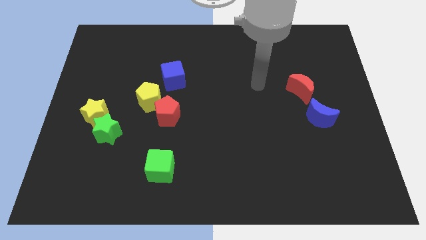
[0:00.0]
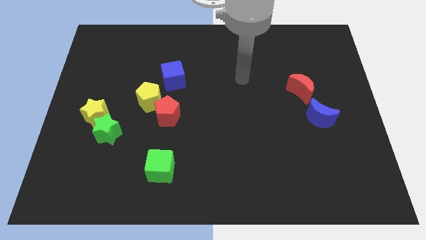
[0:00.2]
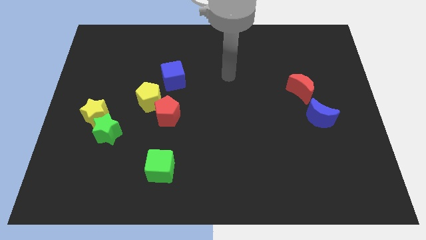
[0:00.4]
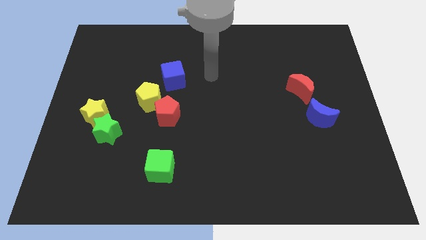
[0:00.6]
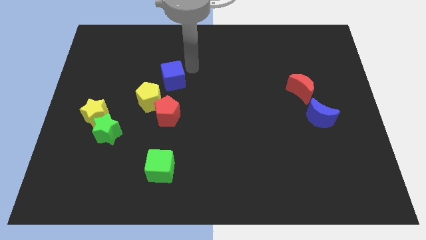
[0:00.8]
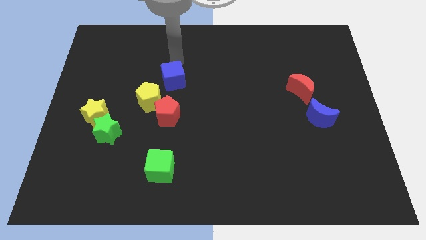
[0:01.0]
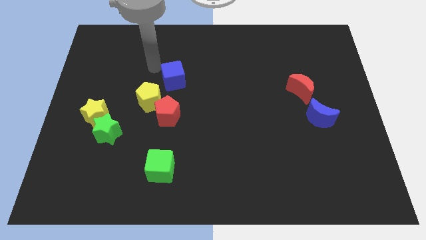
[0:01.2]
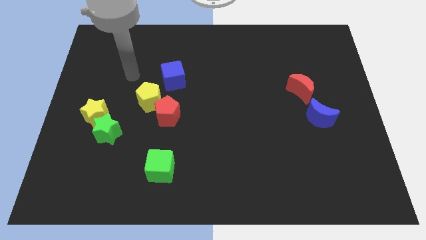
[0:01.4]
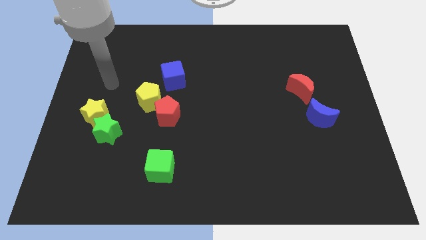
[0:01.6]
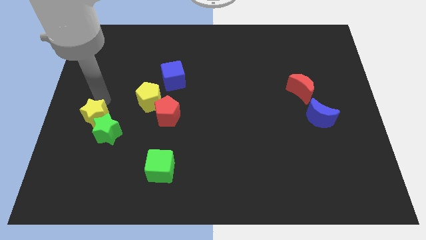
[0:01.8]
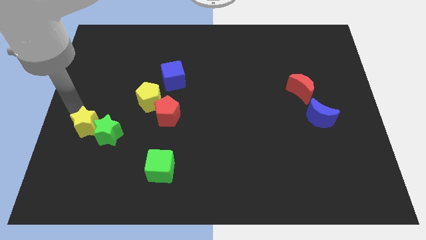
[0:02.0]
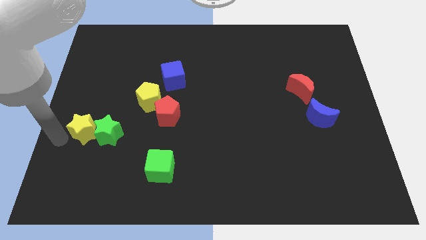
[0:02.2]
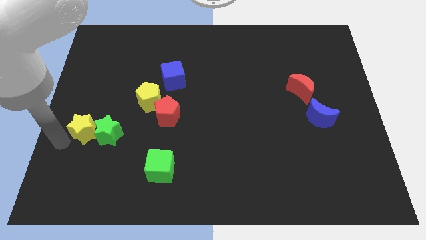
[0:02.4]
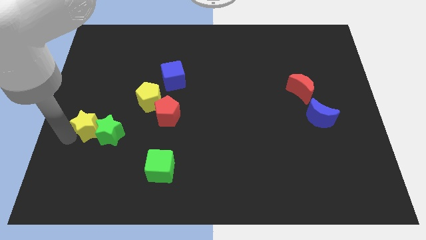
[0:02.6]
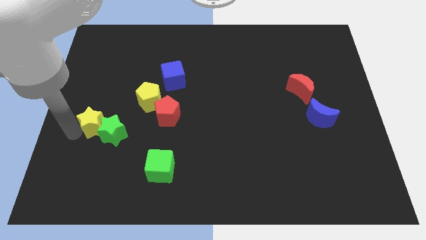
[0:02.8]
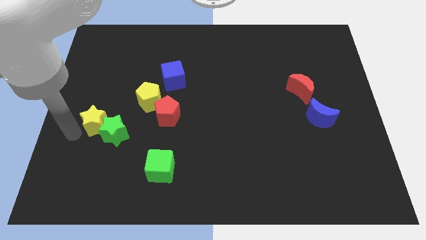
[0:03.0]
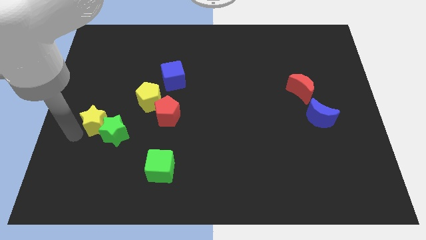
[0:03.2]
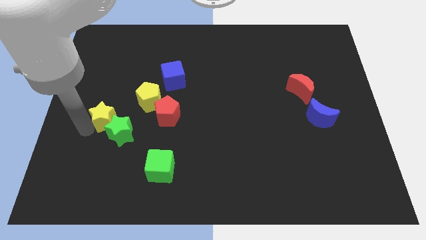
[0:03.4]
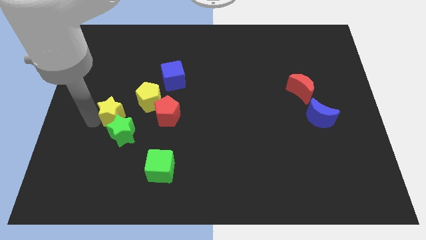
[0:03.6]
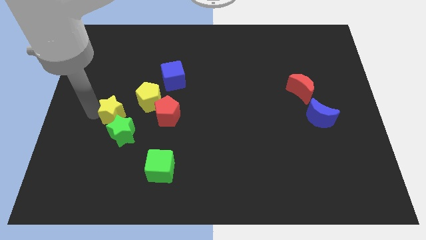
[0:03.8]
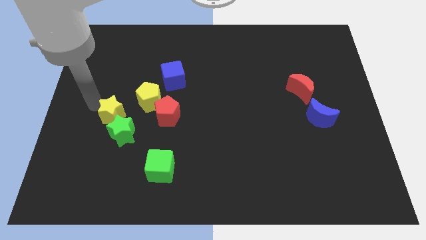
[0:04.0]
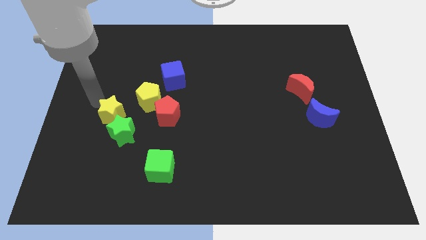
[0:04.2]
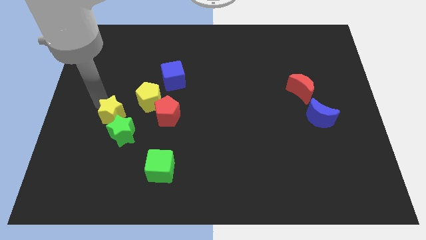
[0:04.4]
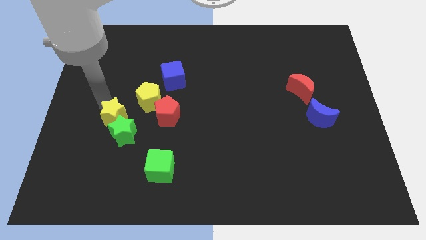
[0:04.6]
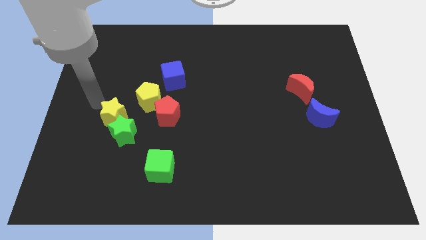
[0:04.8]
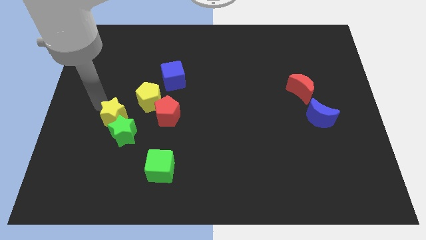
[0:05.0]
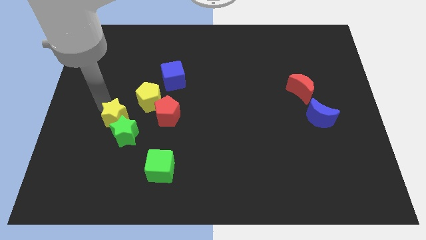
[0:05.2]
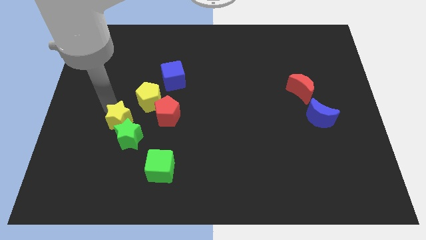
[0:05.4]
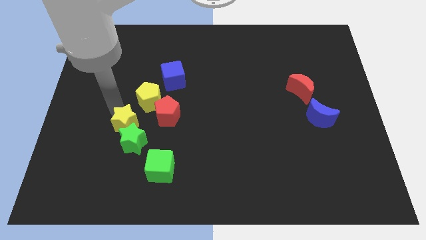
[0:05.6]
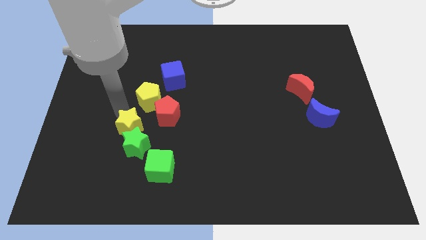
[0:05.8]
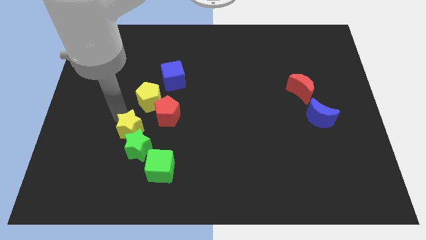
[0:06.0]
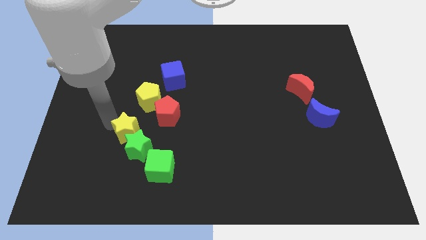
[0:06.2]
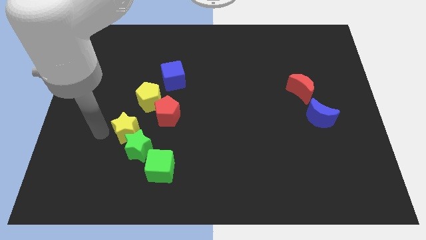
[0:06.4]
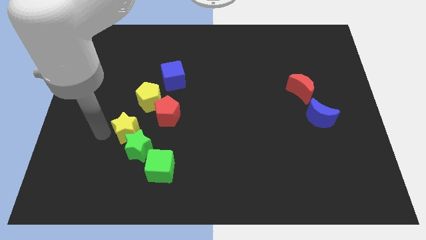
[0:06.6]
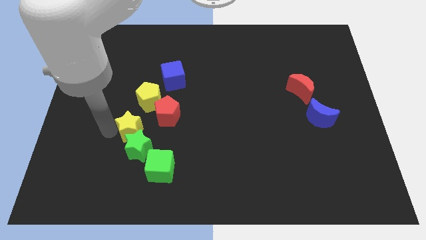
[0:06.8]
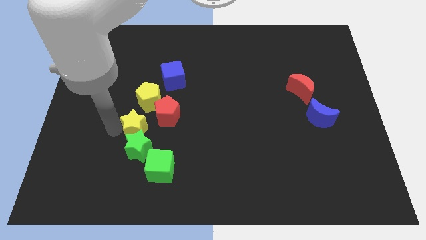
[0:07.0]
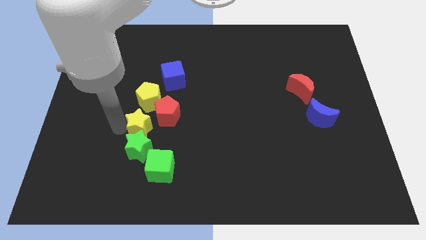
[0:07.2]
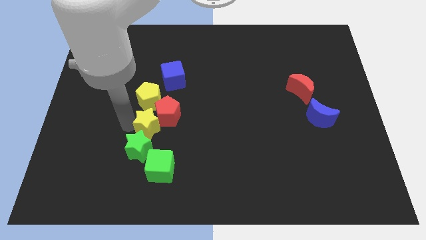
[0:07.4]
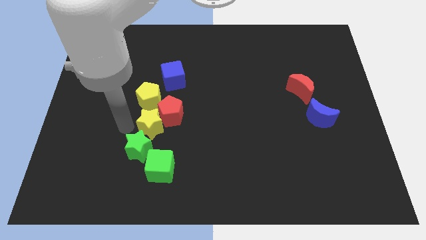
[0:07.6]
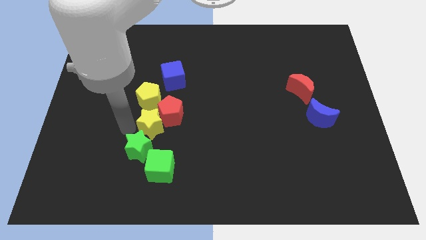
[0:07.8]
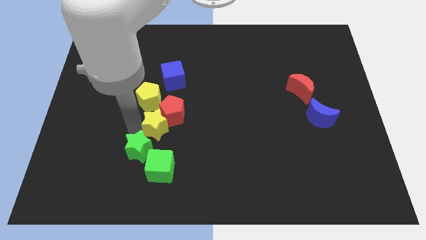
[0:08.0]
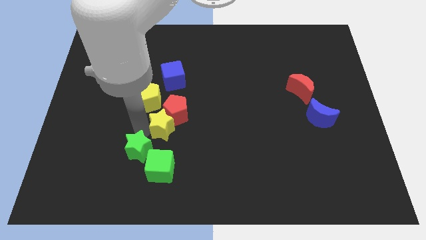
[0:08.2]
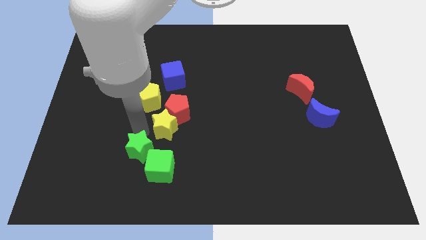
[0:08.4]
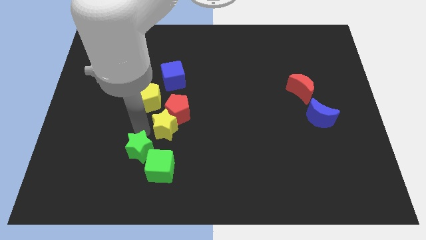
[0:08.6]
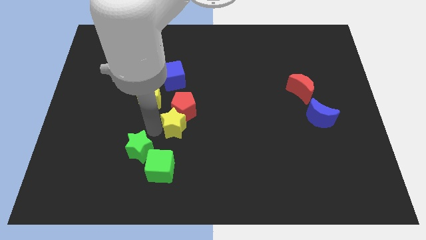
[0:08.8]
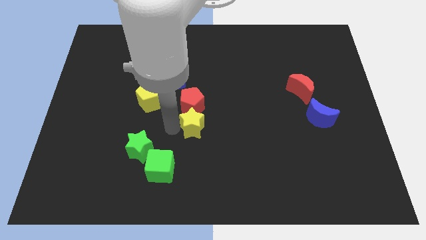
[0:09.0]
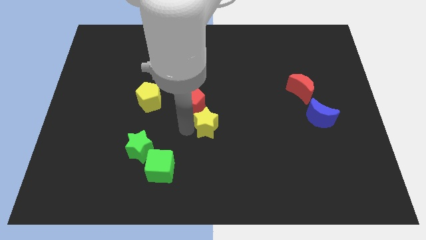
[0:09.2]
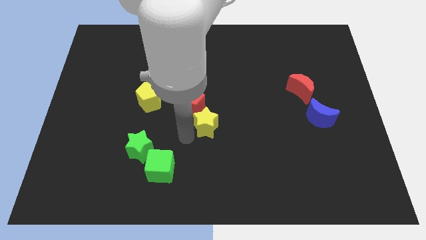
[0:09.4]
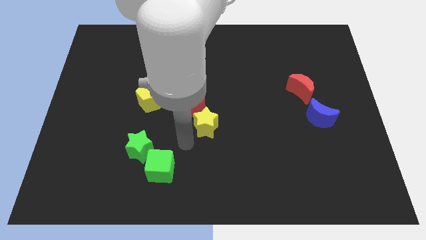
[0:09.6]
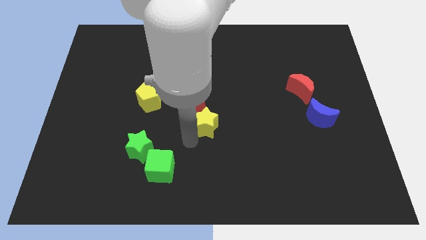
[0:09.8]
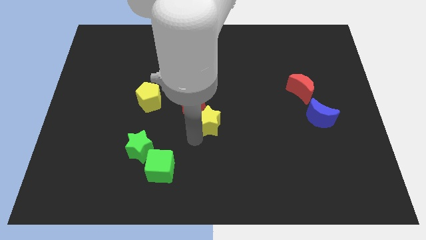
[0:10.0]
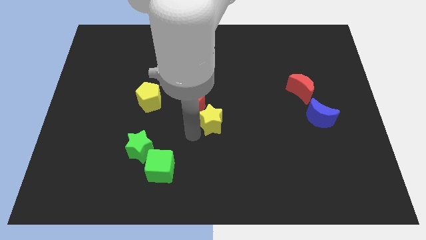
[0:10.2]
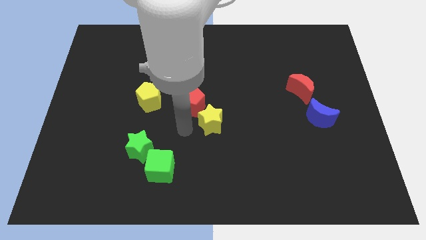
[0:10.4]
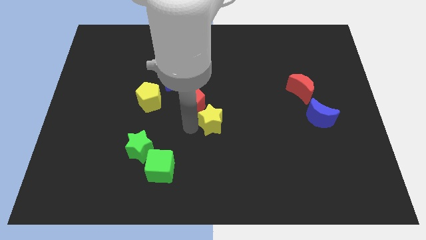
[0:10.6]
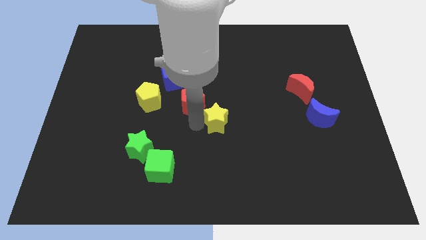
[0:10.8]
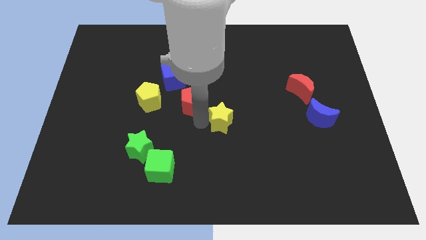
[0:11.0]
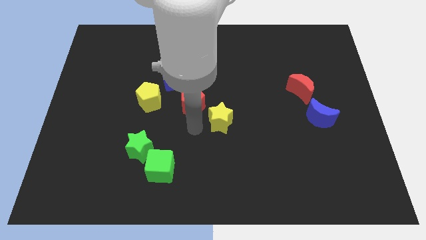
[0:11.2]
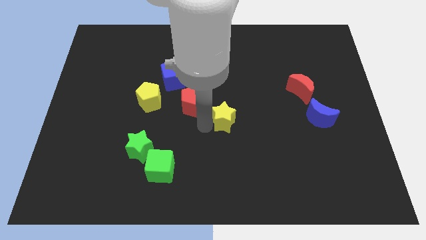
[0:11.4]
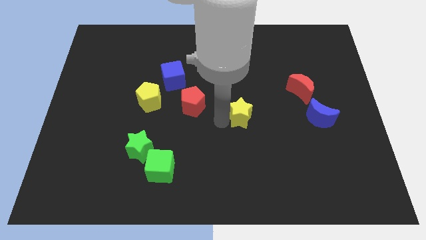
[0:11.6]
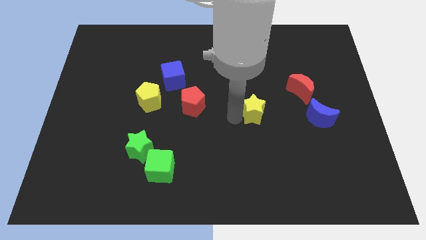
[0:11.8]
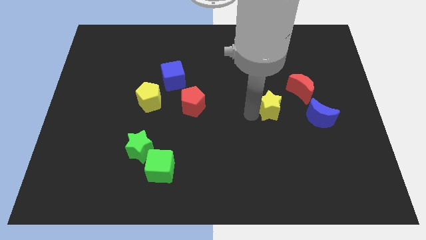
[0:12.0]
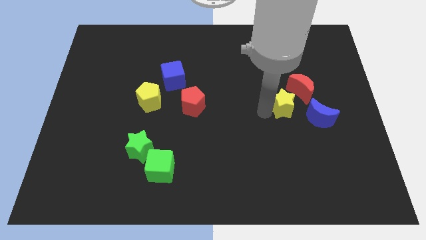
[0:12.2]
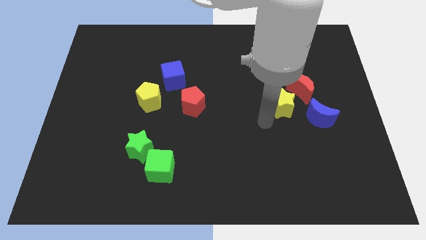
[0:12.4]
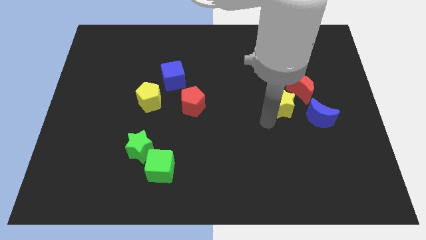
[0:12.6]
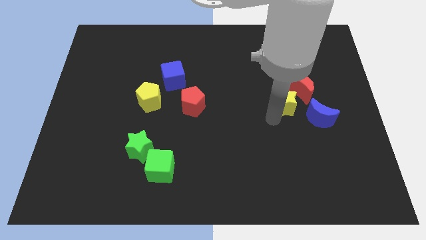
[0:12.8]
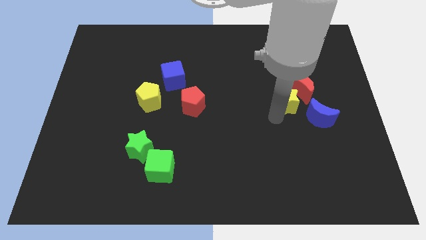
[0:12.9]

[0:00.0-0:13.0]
push the yellow star to the red moon

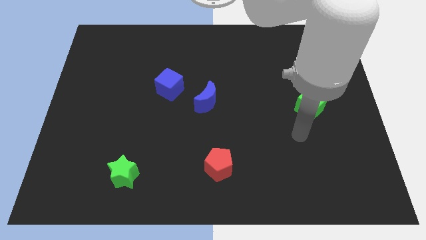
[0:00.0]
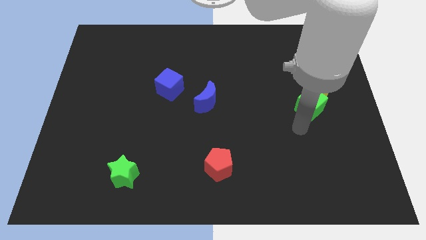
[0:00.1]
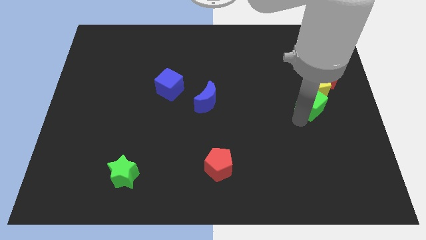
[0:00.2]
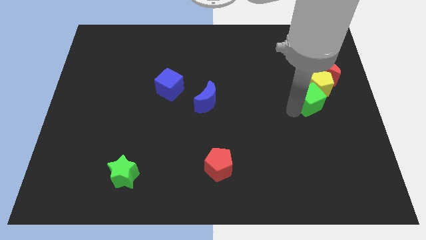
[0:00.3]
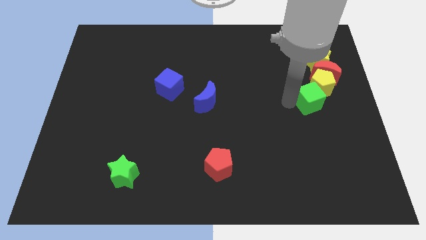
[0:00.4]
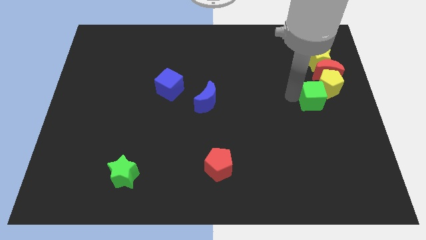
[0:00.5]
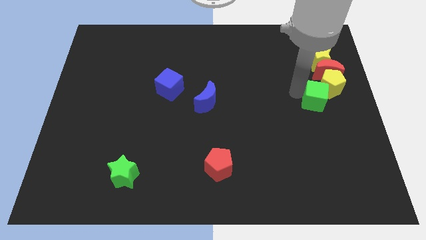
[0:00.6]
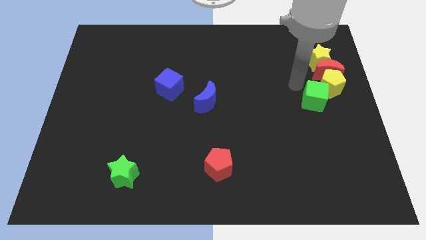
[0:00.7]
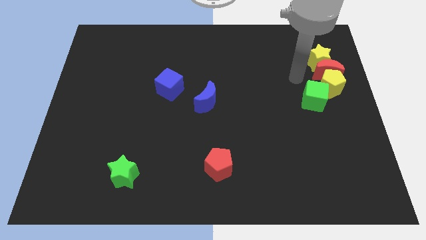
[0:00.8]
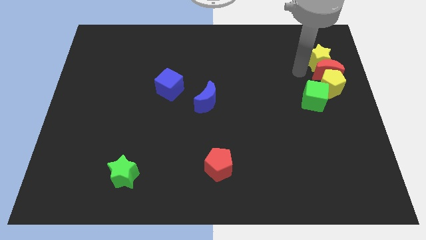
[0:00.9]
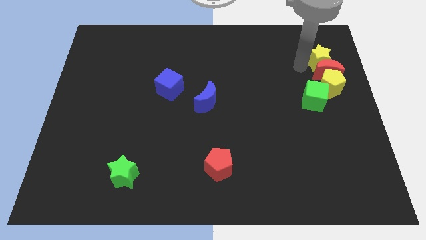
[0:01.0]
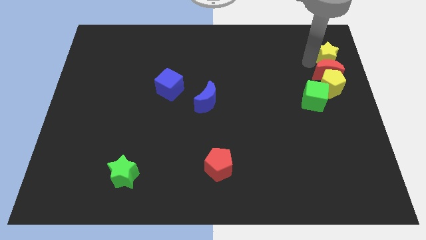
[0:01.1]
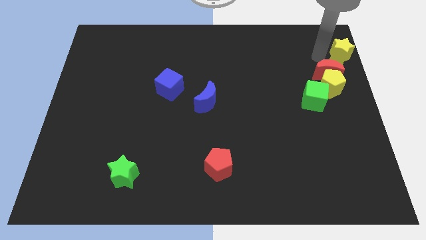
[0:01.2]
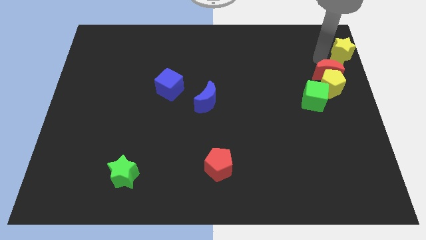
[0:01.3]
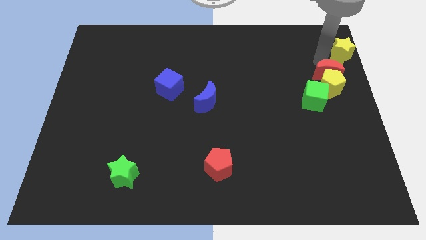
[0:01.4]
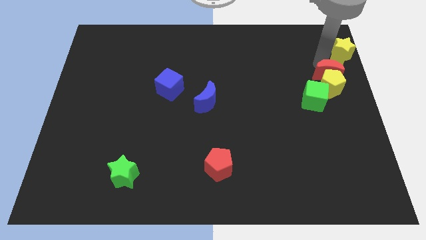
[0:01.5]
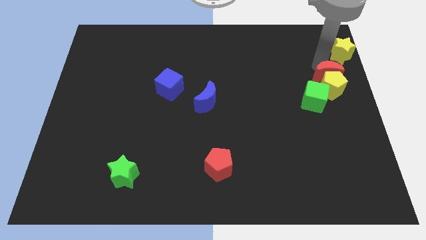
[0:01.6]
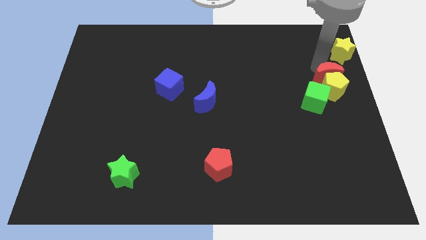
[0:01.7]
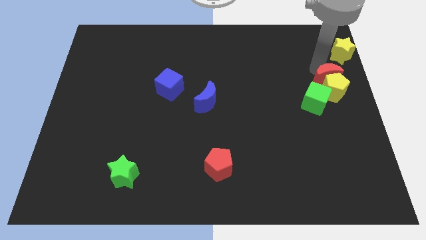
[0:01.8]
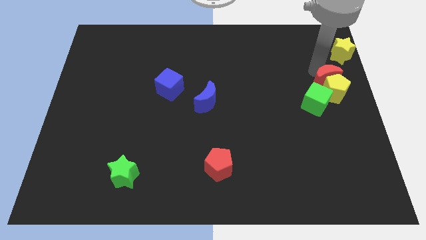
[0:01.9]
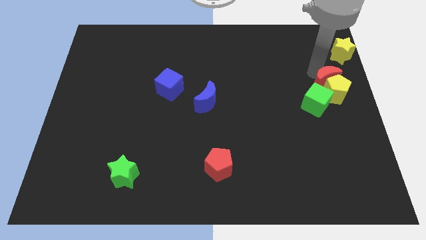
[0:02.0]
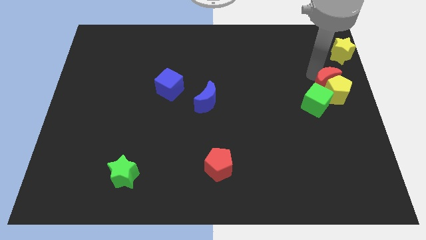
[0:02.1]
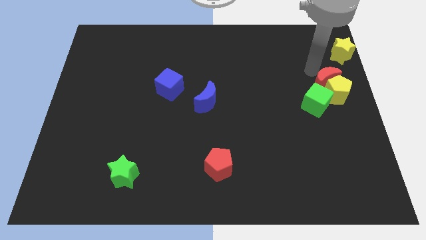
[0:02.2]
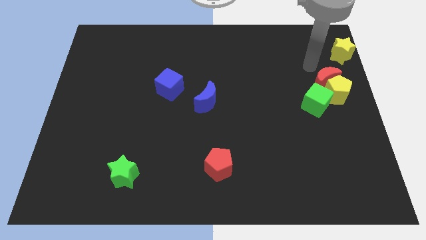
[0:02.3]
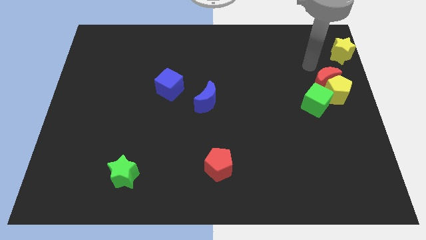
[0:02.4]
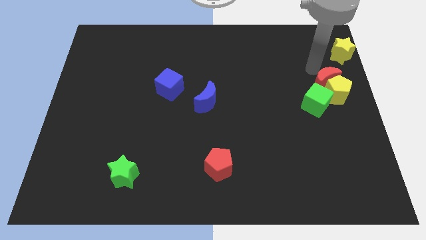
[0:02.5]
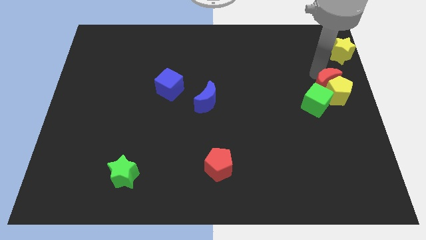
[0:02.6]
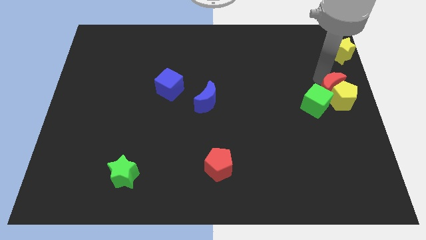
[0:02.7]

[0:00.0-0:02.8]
put the red moon close to the green cube
